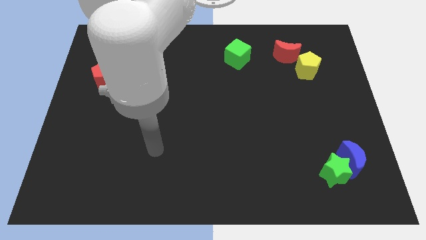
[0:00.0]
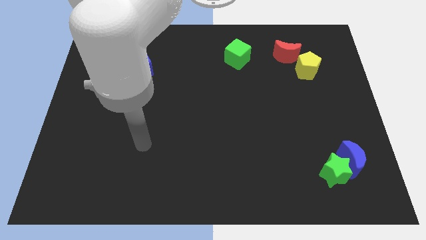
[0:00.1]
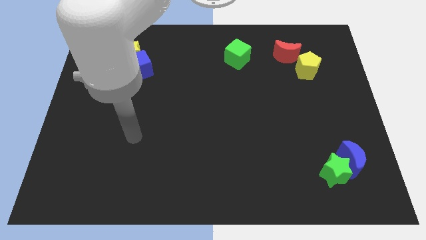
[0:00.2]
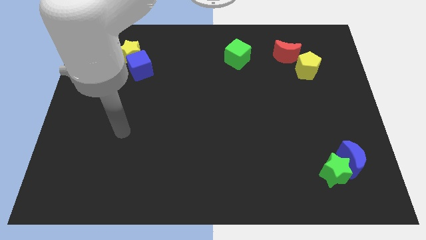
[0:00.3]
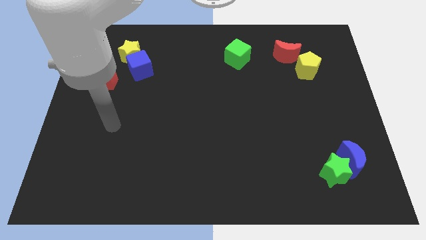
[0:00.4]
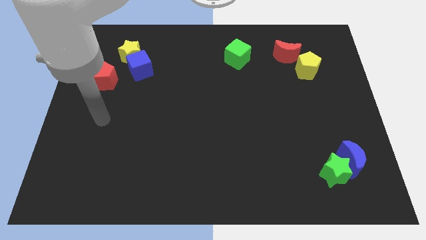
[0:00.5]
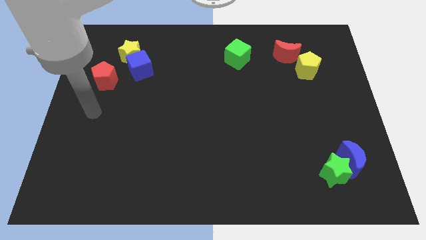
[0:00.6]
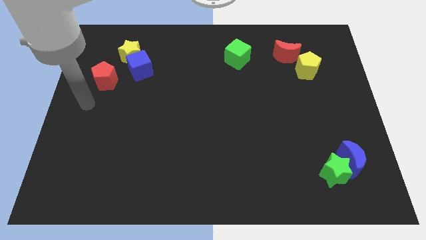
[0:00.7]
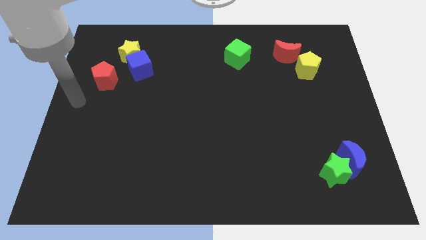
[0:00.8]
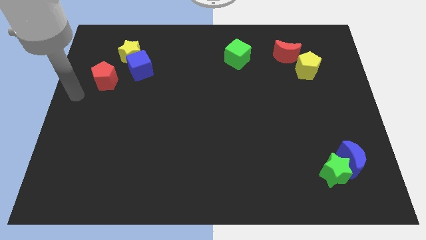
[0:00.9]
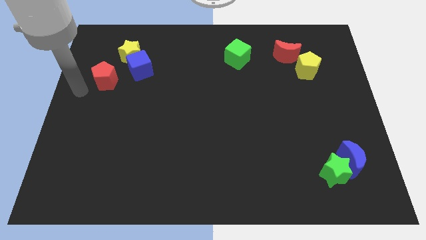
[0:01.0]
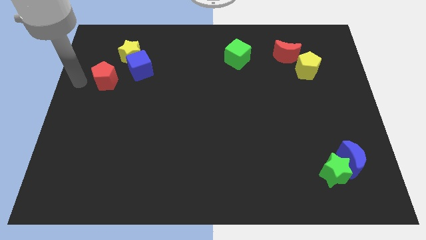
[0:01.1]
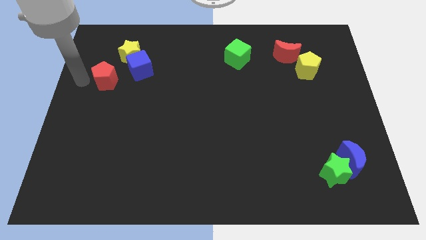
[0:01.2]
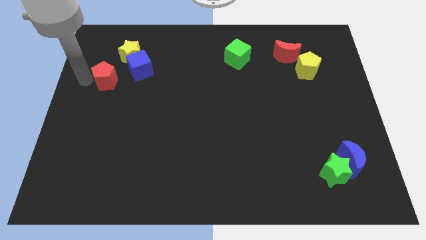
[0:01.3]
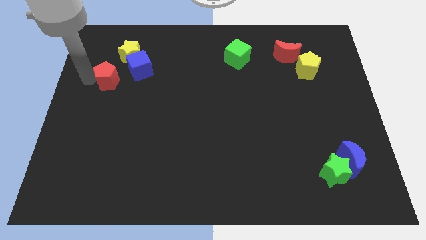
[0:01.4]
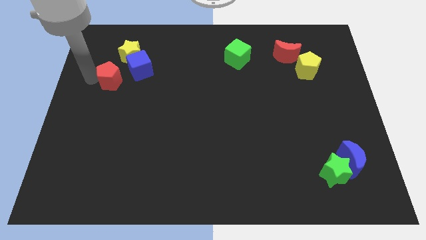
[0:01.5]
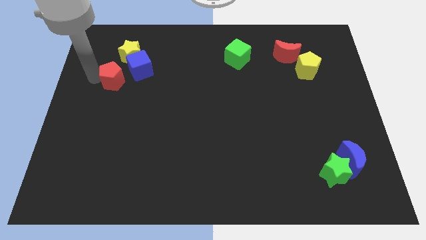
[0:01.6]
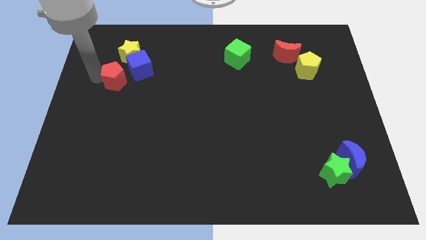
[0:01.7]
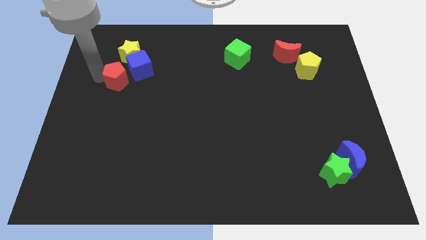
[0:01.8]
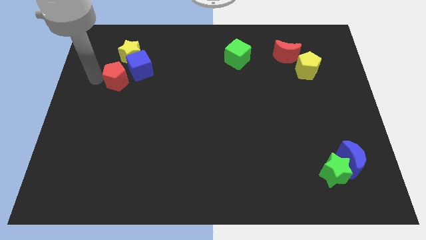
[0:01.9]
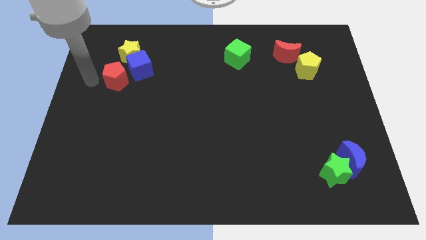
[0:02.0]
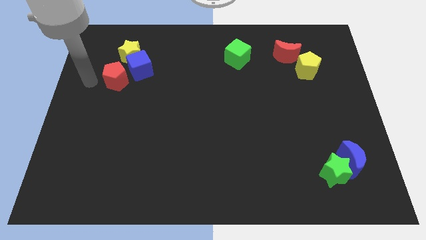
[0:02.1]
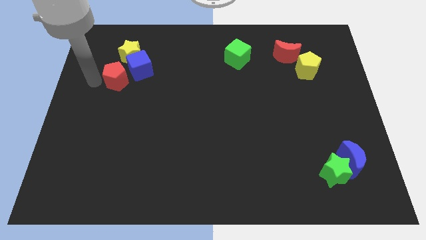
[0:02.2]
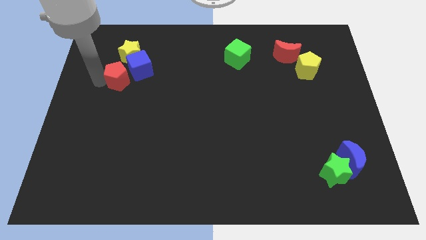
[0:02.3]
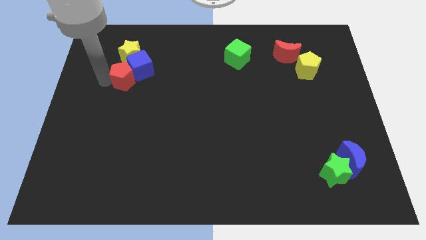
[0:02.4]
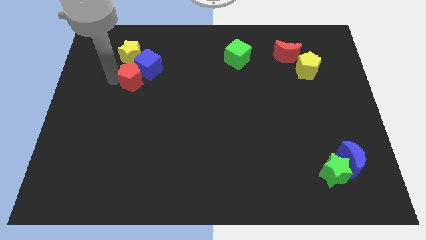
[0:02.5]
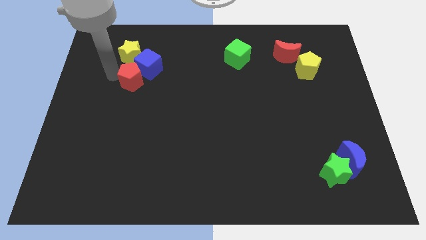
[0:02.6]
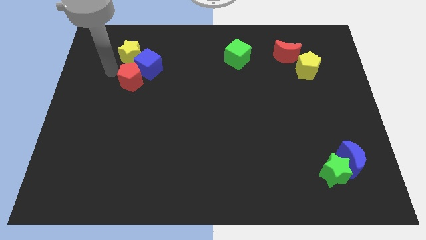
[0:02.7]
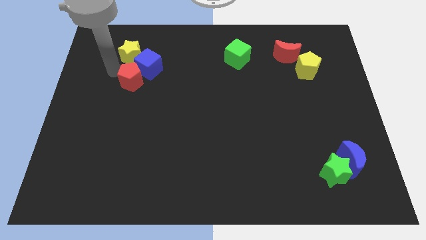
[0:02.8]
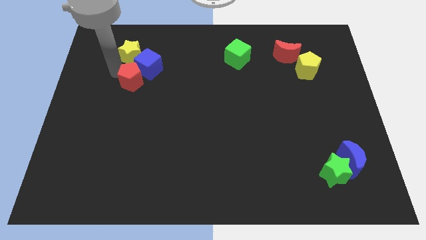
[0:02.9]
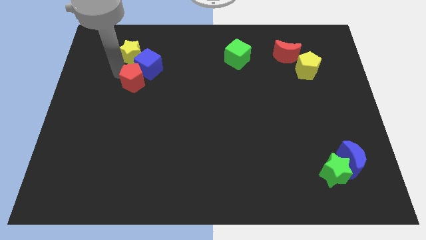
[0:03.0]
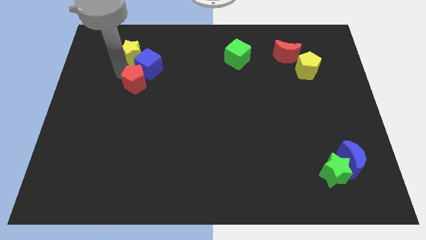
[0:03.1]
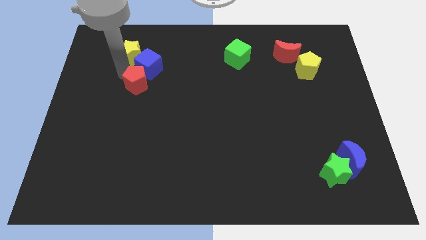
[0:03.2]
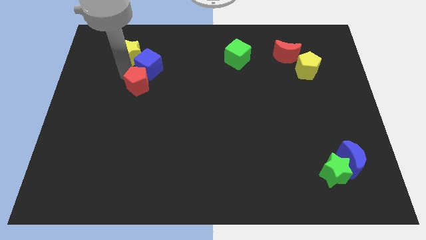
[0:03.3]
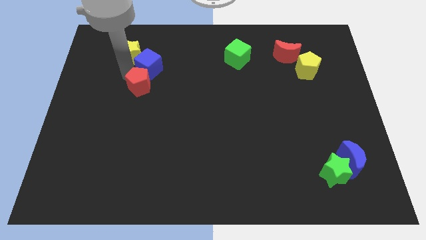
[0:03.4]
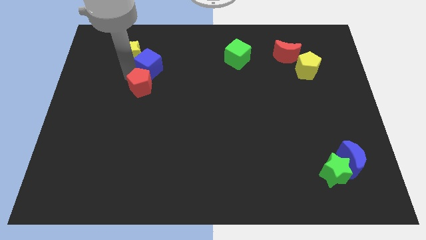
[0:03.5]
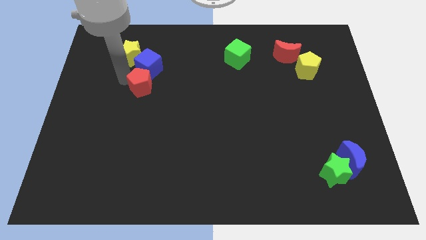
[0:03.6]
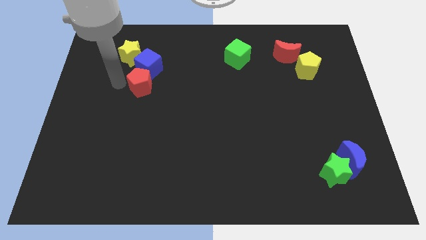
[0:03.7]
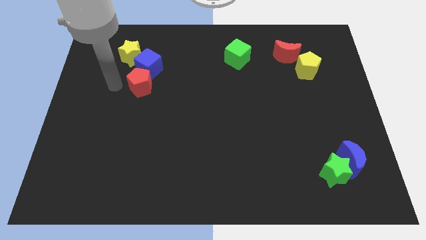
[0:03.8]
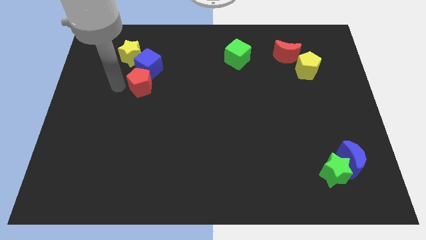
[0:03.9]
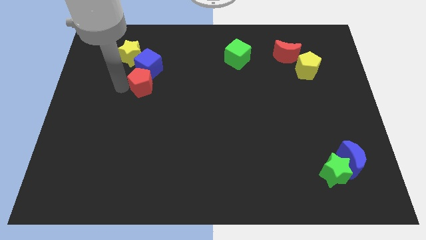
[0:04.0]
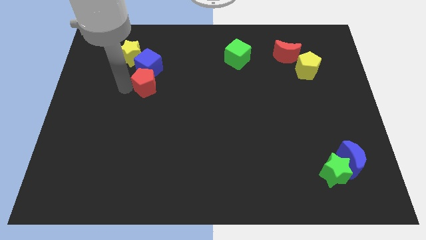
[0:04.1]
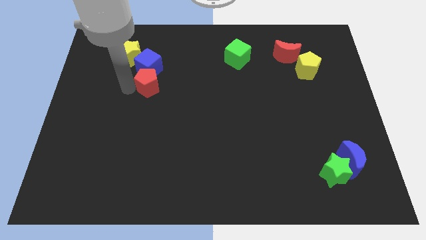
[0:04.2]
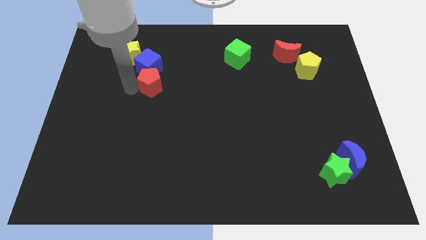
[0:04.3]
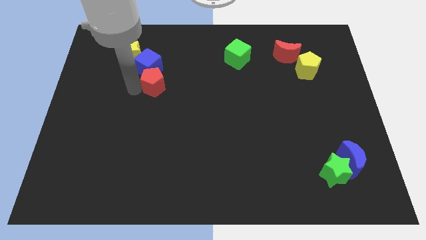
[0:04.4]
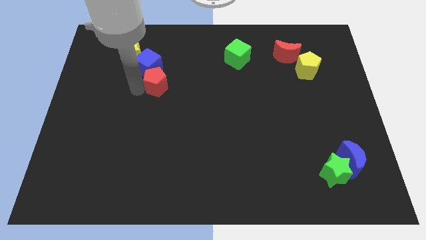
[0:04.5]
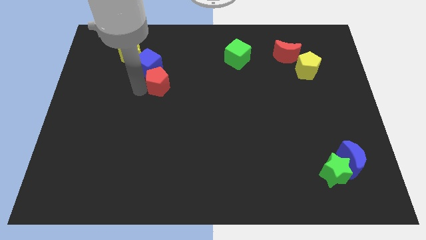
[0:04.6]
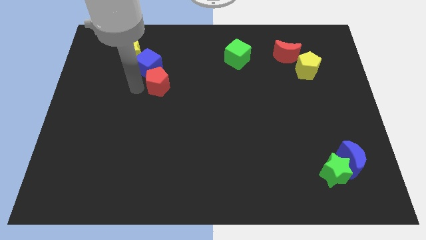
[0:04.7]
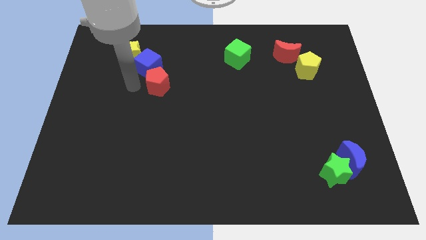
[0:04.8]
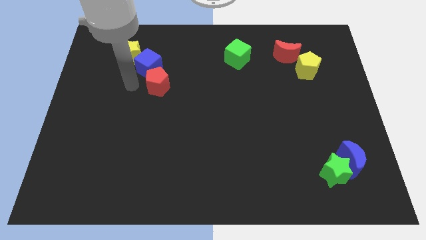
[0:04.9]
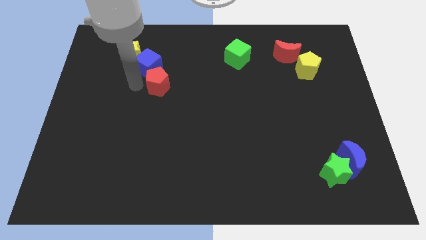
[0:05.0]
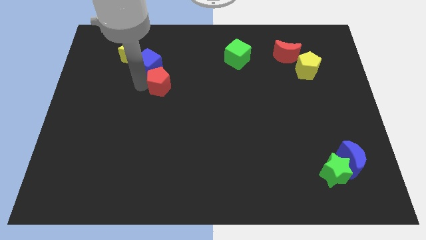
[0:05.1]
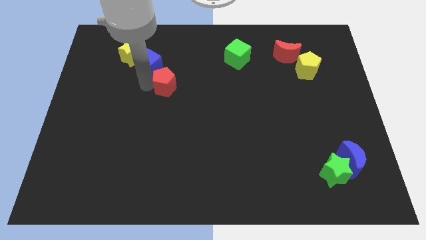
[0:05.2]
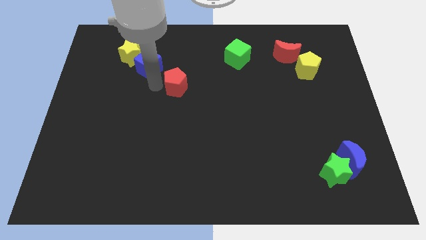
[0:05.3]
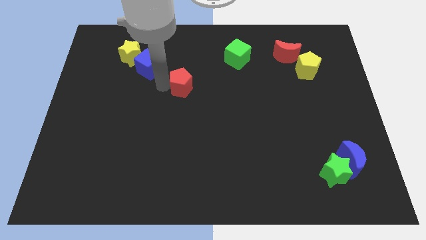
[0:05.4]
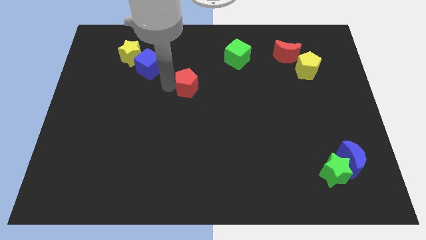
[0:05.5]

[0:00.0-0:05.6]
push the red pentagon to the right

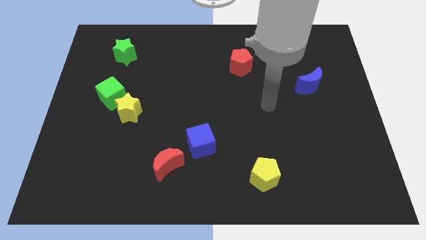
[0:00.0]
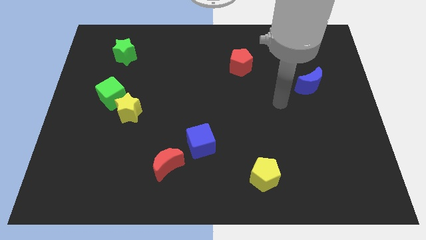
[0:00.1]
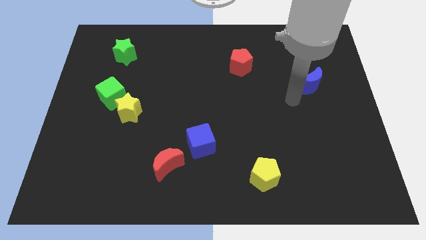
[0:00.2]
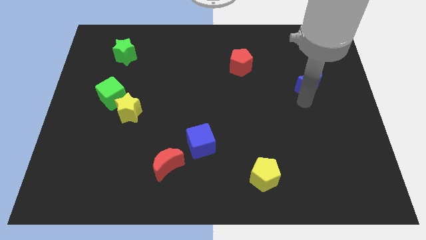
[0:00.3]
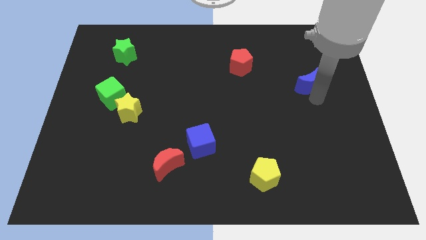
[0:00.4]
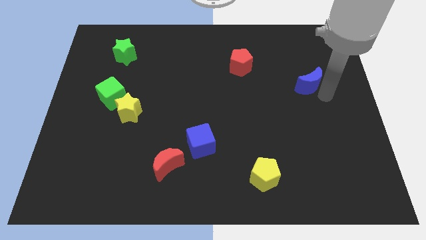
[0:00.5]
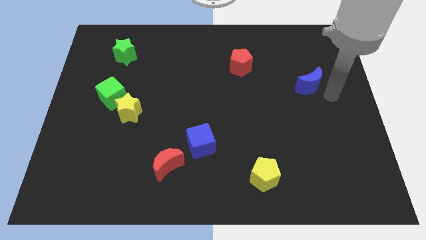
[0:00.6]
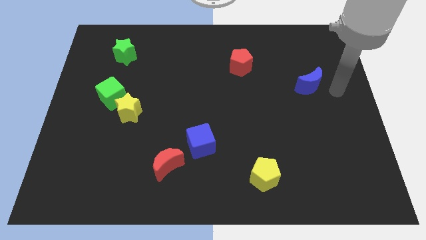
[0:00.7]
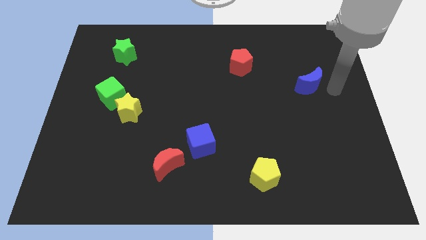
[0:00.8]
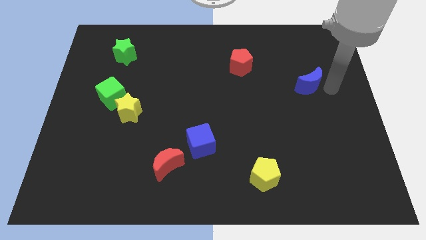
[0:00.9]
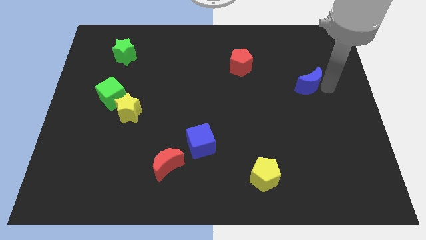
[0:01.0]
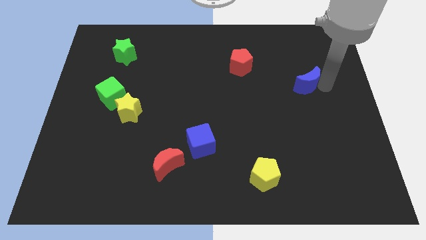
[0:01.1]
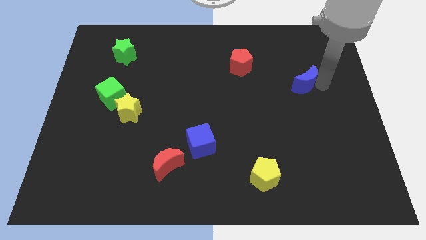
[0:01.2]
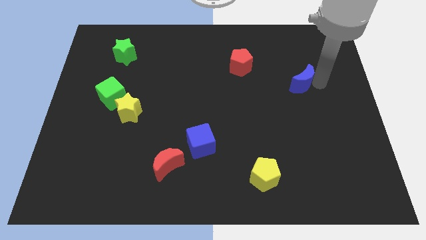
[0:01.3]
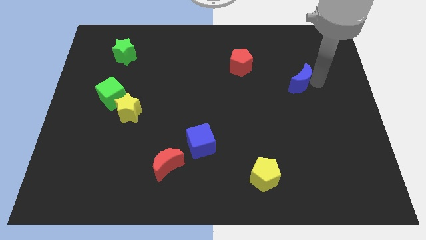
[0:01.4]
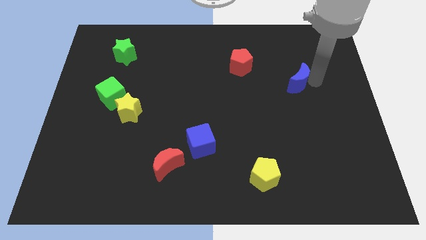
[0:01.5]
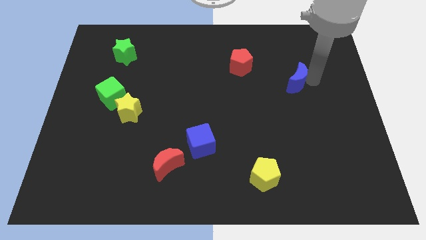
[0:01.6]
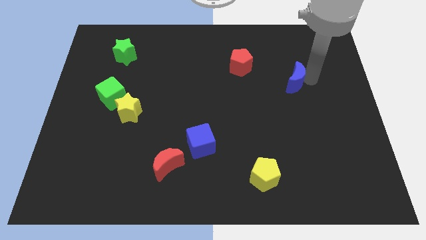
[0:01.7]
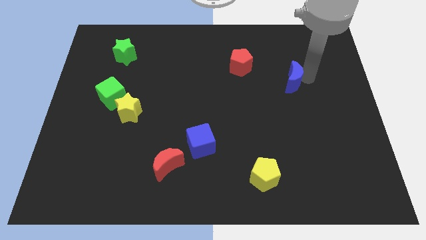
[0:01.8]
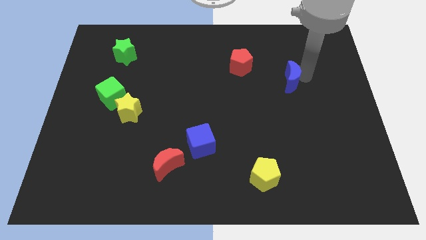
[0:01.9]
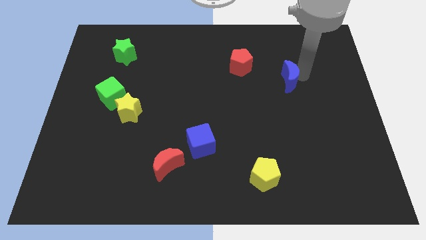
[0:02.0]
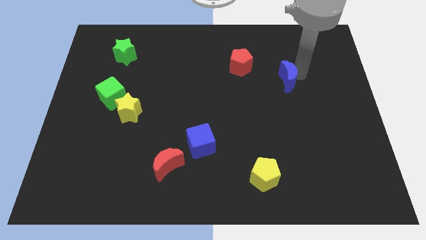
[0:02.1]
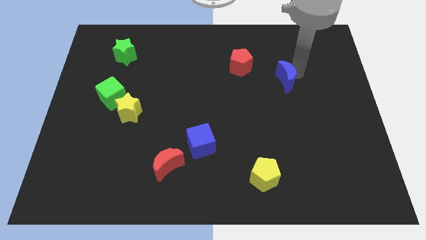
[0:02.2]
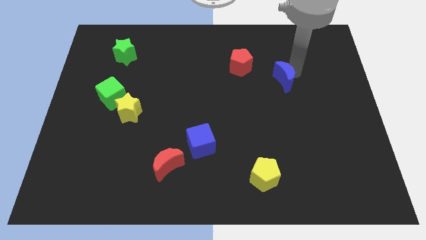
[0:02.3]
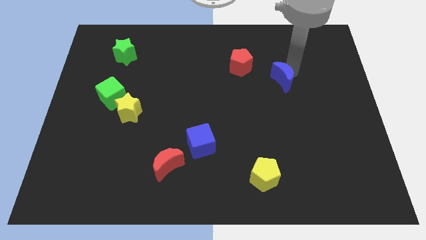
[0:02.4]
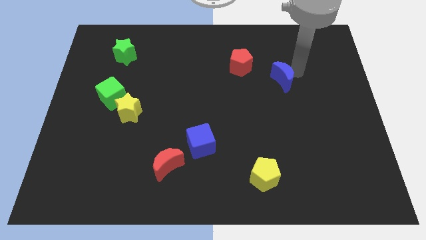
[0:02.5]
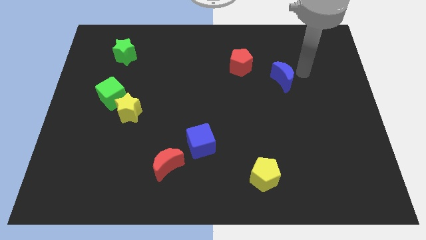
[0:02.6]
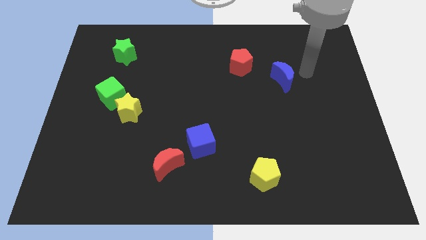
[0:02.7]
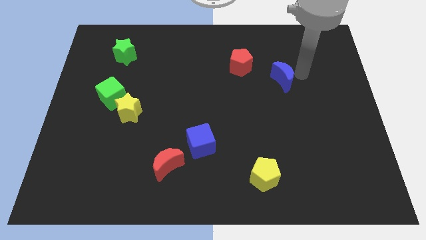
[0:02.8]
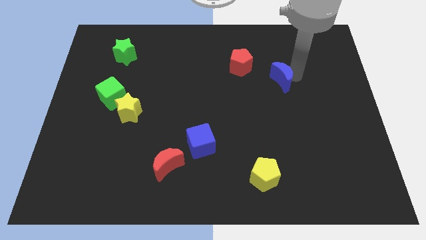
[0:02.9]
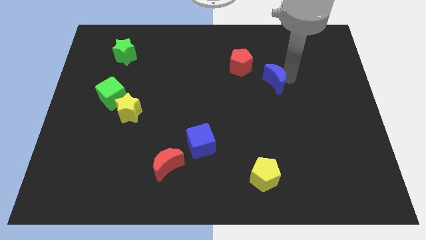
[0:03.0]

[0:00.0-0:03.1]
slide the blue moon to the left somewhat
